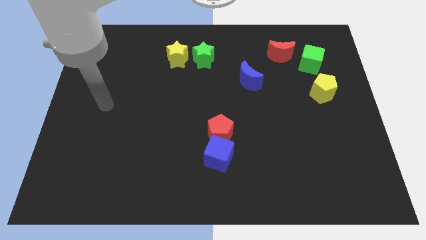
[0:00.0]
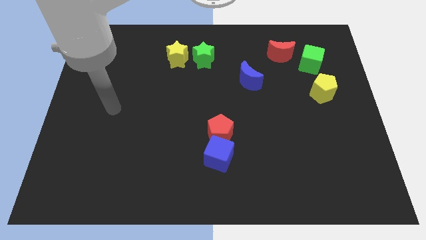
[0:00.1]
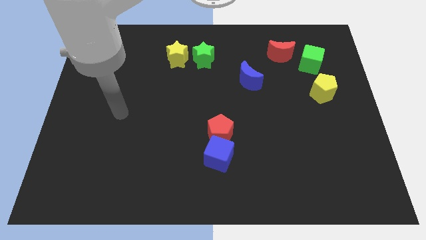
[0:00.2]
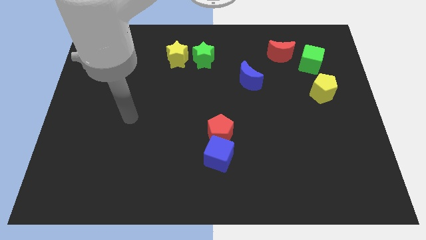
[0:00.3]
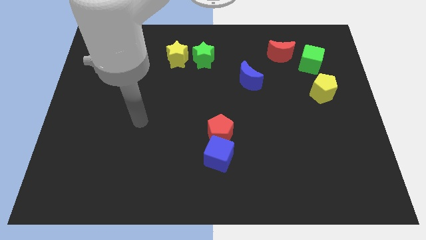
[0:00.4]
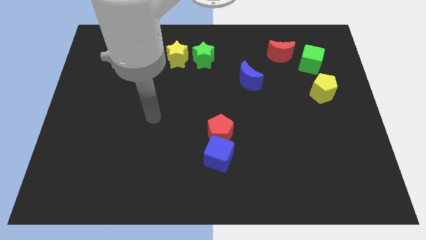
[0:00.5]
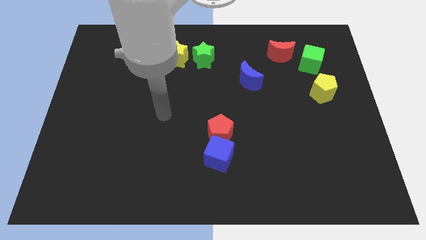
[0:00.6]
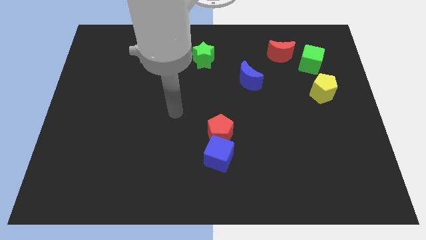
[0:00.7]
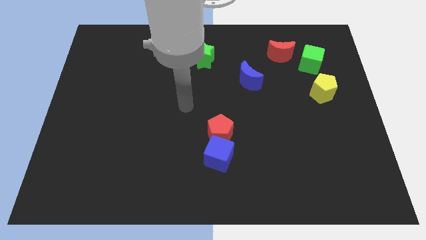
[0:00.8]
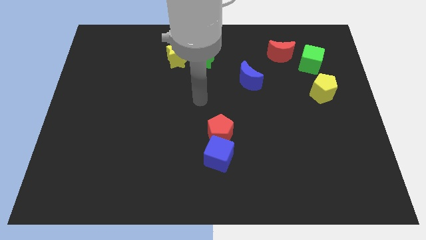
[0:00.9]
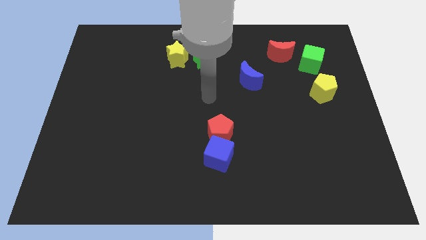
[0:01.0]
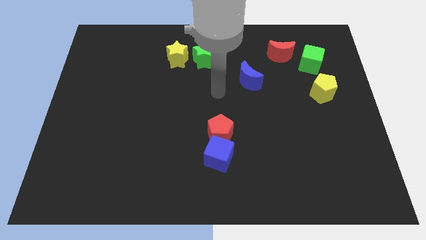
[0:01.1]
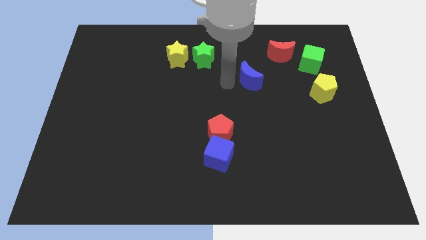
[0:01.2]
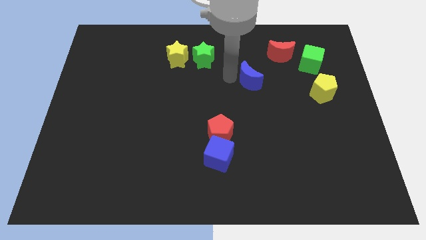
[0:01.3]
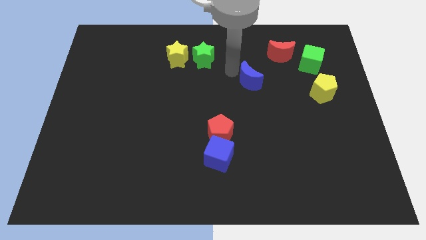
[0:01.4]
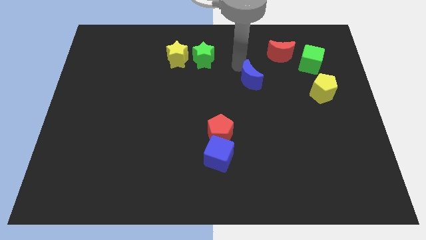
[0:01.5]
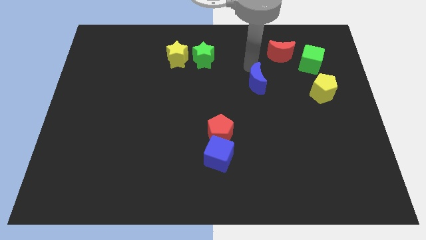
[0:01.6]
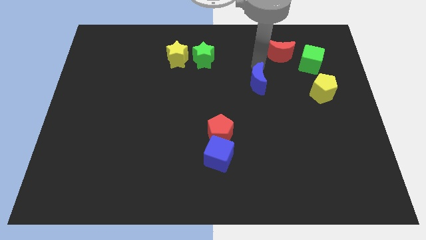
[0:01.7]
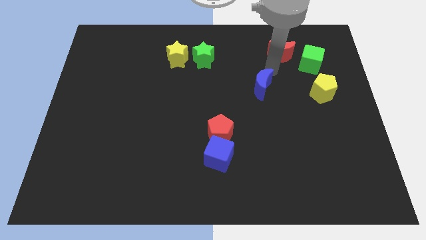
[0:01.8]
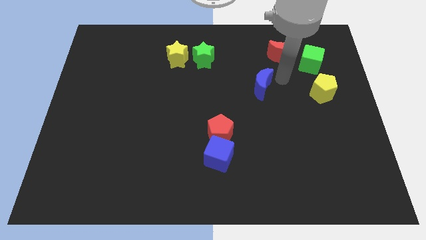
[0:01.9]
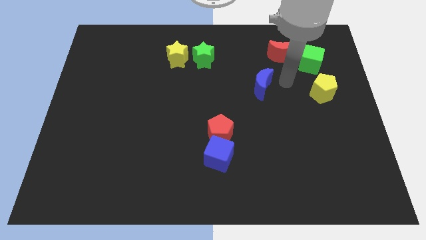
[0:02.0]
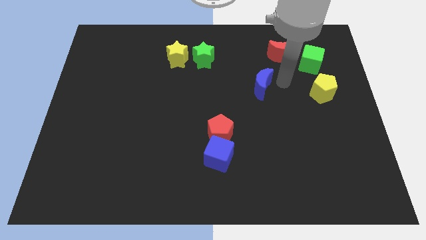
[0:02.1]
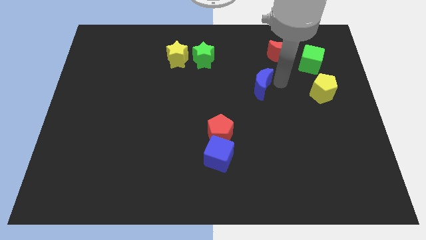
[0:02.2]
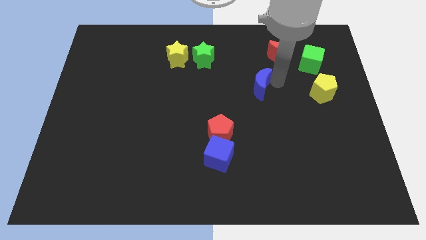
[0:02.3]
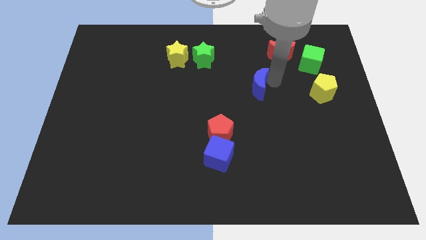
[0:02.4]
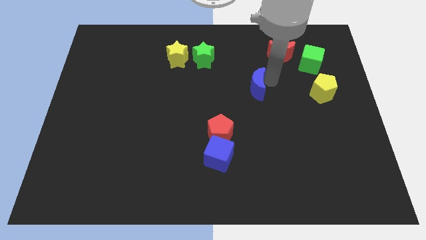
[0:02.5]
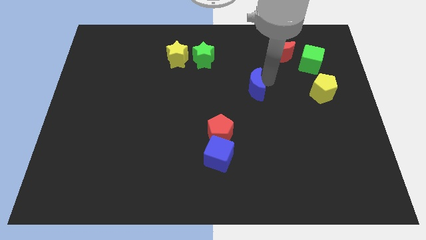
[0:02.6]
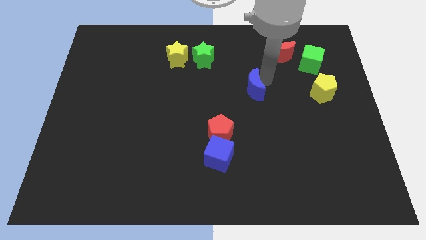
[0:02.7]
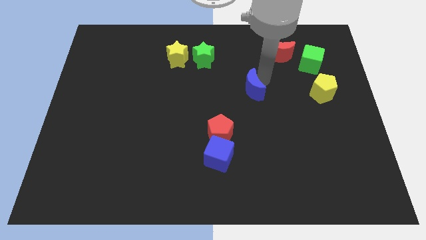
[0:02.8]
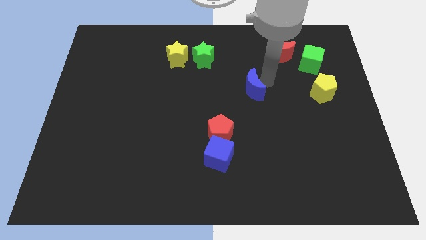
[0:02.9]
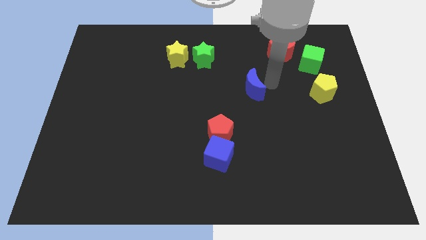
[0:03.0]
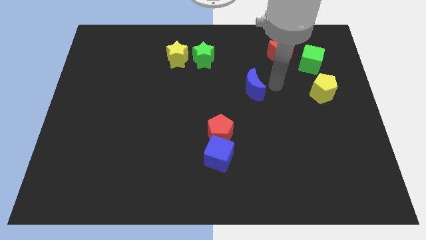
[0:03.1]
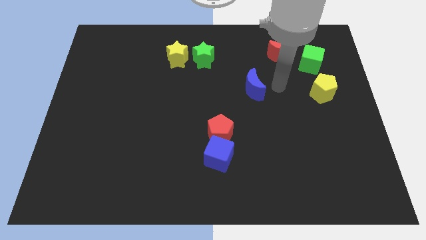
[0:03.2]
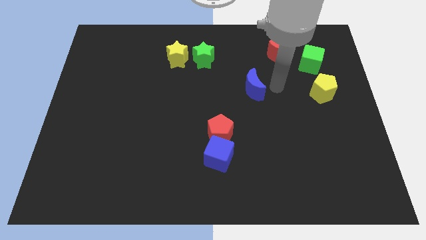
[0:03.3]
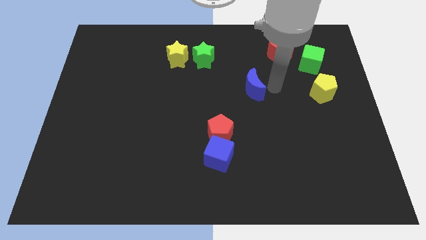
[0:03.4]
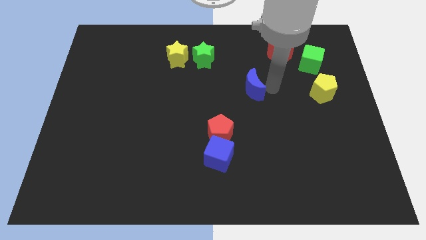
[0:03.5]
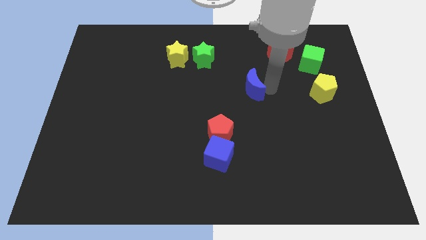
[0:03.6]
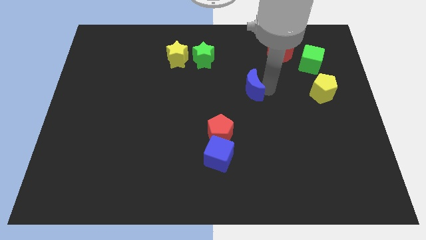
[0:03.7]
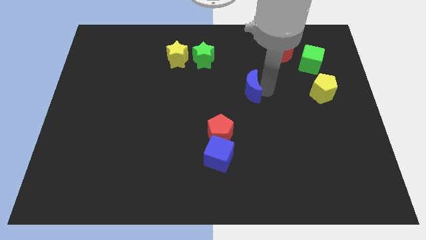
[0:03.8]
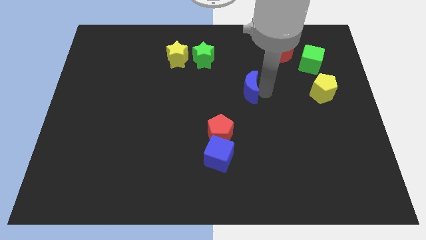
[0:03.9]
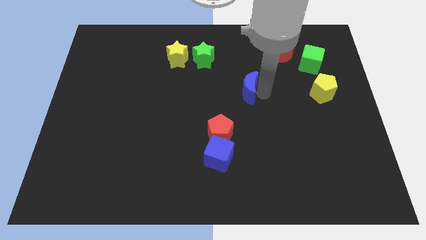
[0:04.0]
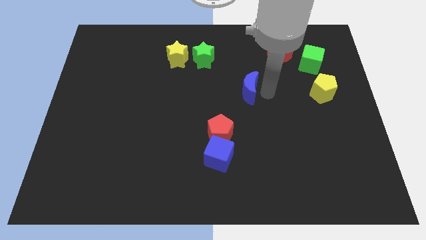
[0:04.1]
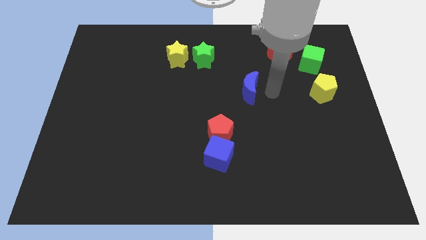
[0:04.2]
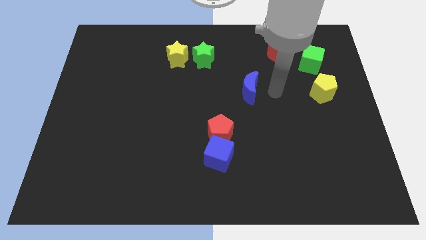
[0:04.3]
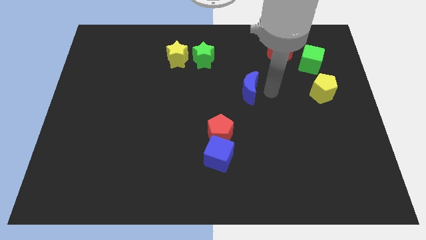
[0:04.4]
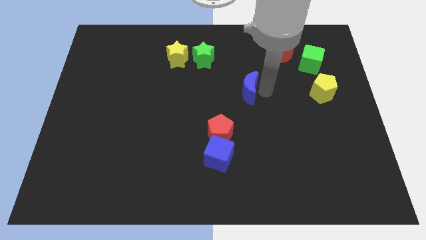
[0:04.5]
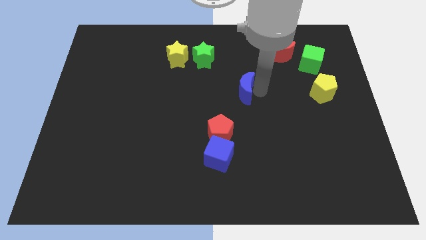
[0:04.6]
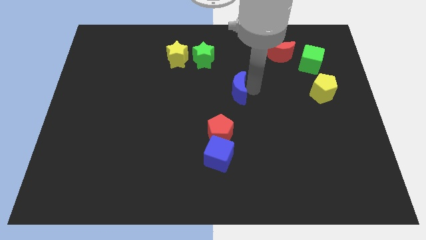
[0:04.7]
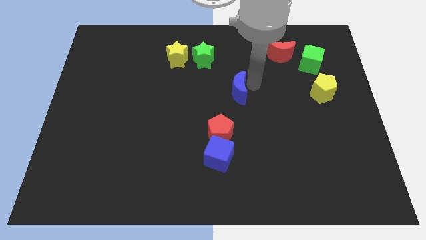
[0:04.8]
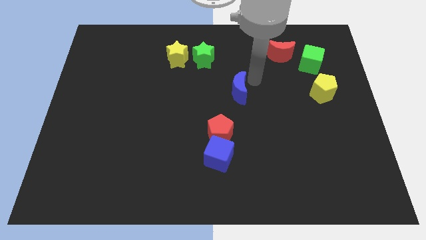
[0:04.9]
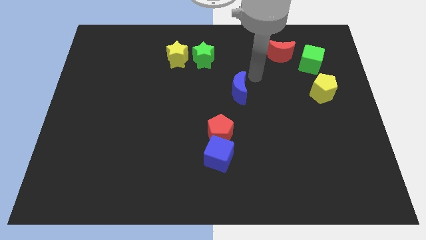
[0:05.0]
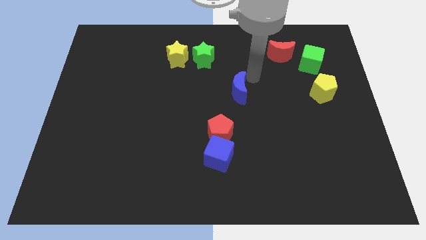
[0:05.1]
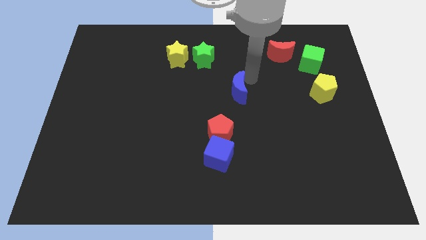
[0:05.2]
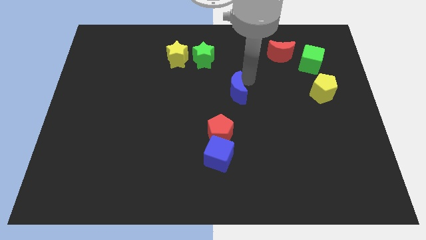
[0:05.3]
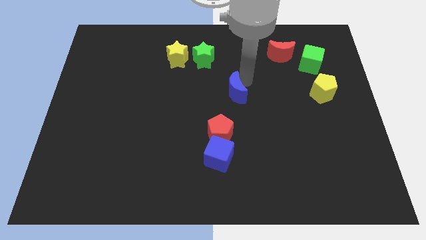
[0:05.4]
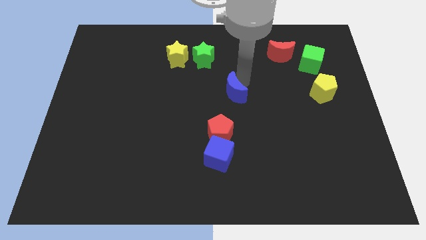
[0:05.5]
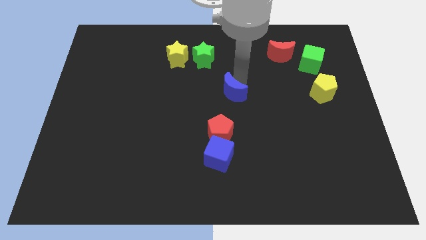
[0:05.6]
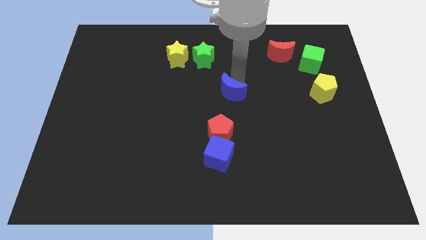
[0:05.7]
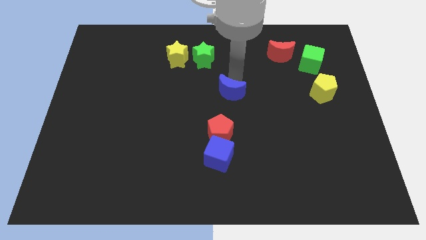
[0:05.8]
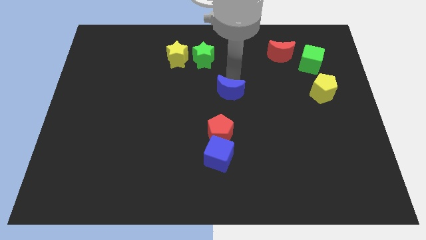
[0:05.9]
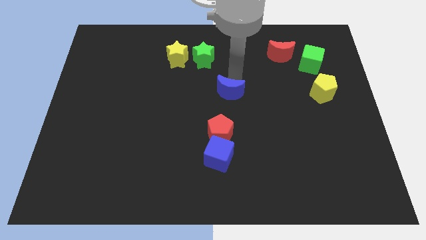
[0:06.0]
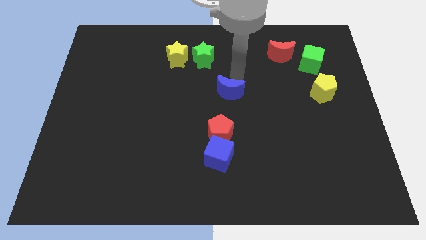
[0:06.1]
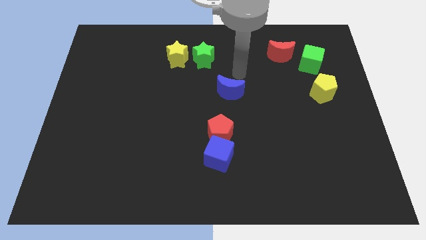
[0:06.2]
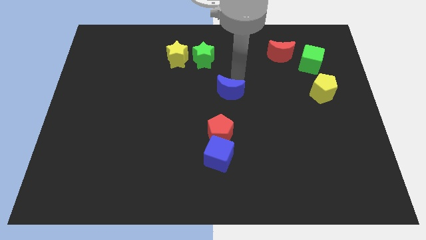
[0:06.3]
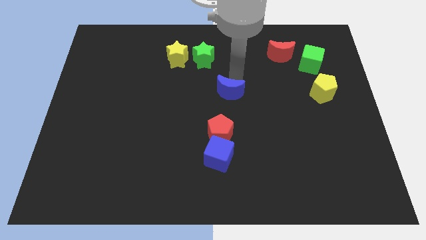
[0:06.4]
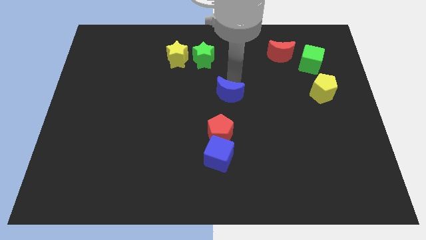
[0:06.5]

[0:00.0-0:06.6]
slightly push the blue moon down and left diagonally

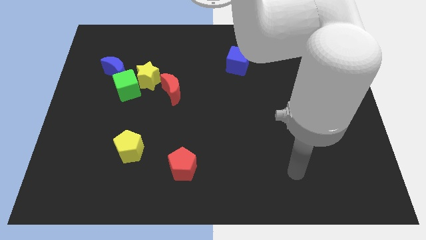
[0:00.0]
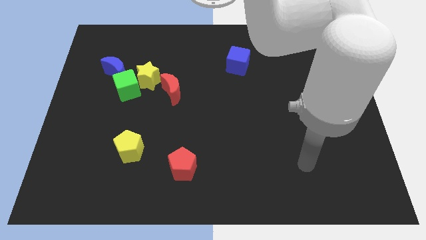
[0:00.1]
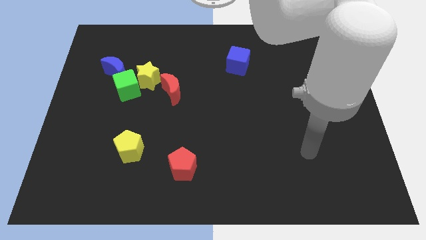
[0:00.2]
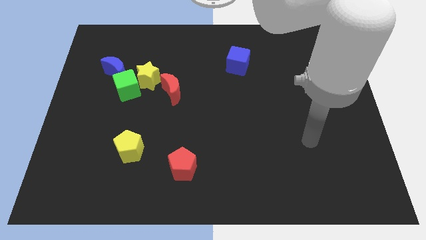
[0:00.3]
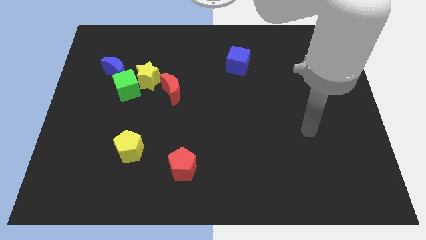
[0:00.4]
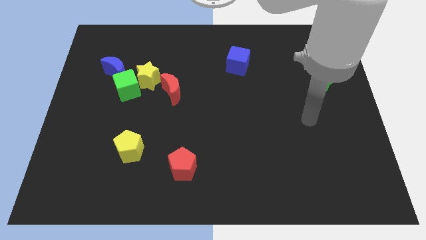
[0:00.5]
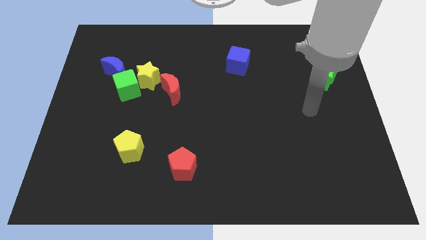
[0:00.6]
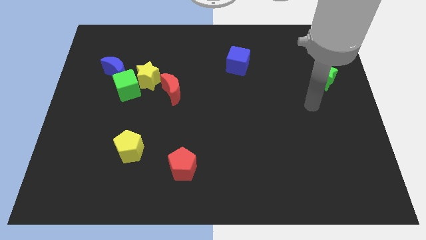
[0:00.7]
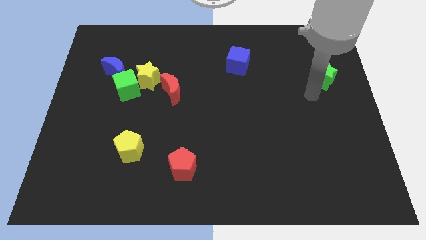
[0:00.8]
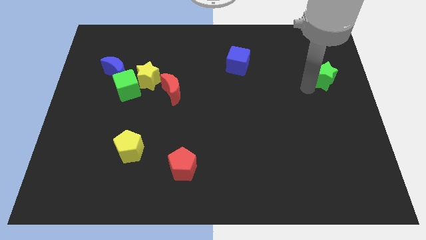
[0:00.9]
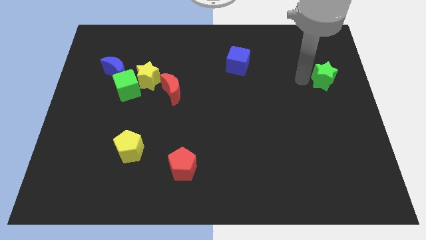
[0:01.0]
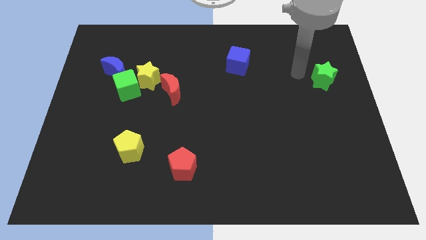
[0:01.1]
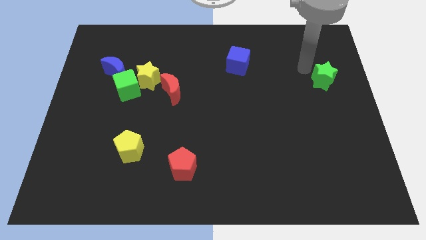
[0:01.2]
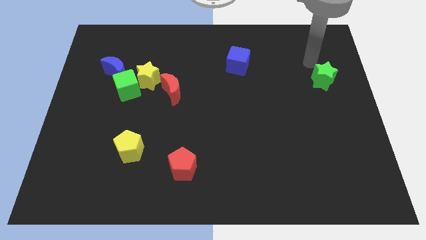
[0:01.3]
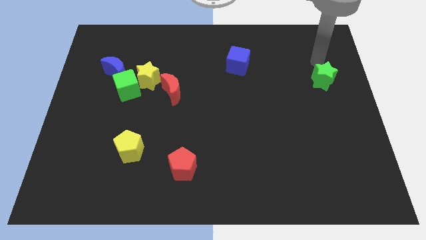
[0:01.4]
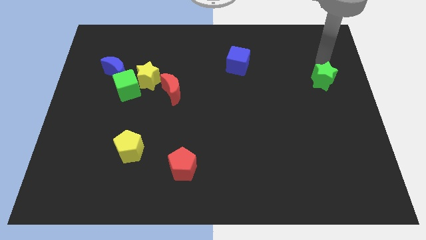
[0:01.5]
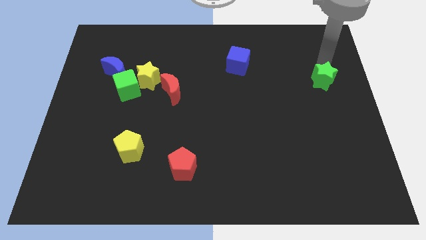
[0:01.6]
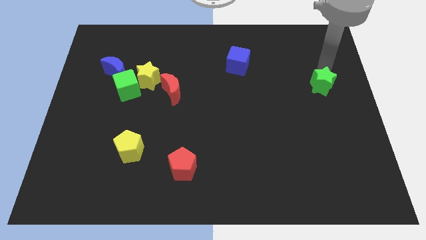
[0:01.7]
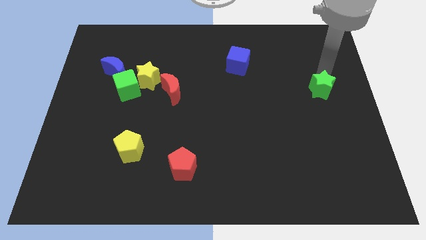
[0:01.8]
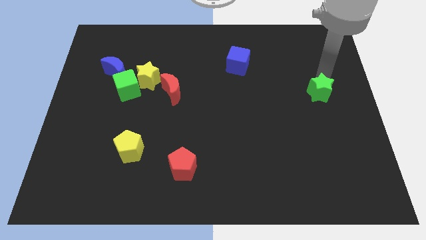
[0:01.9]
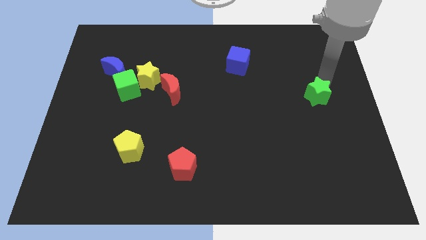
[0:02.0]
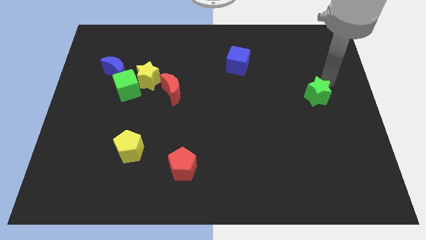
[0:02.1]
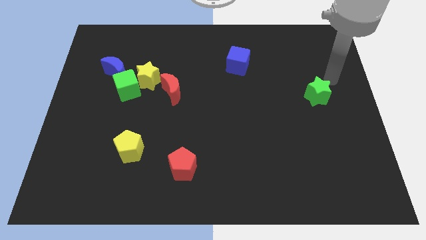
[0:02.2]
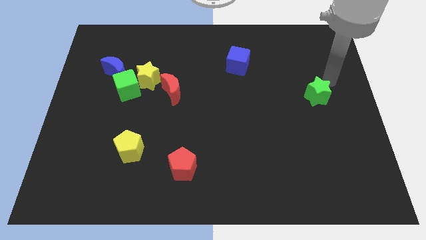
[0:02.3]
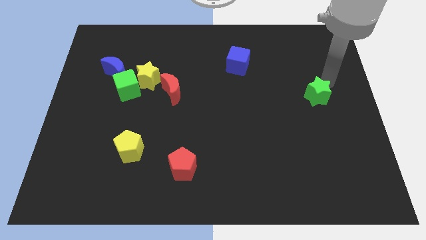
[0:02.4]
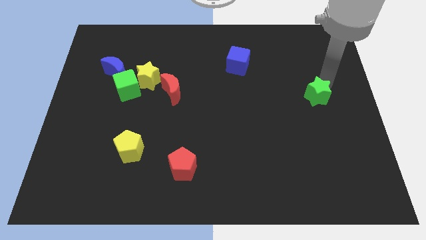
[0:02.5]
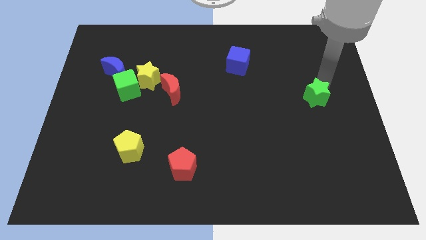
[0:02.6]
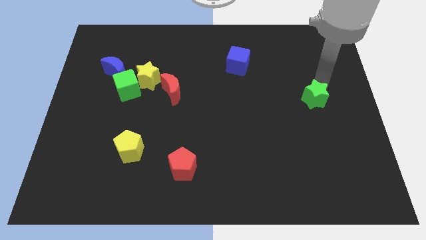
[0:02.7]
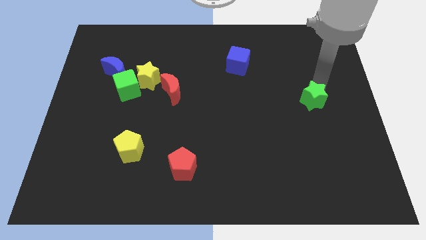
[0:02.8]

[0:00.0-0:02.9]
slightly push the green star downwards and then to the left
